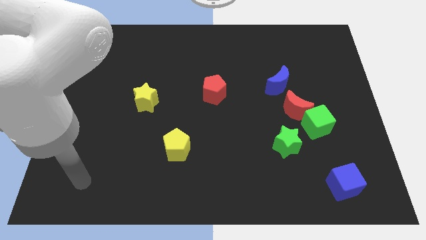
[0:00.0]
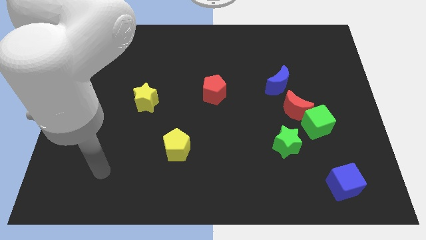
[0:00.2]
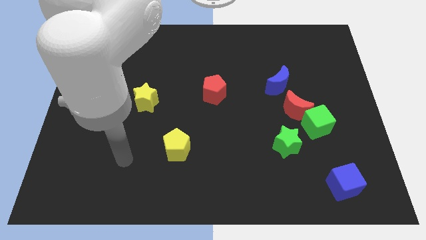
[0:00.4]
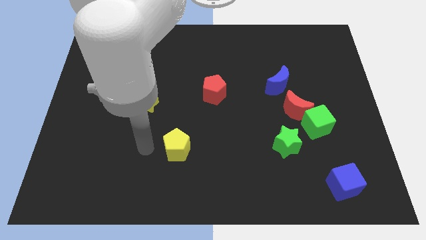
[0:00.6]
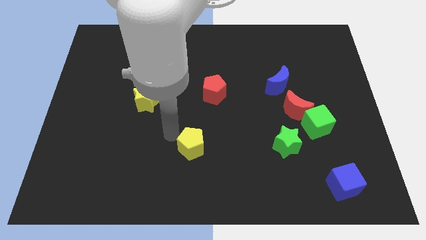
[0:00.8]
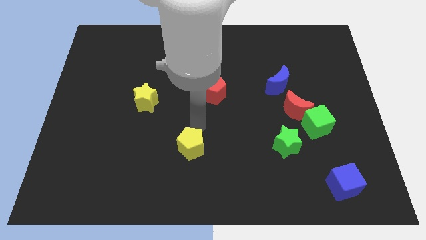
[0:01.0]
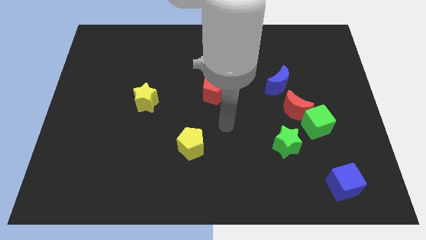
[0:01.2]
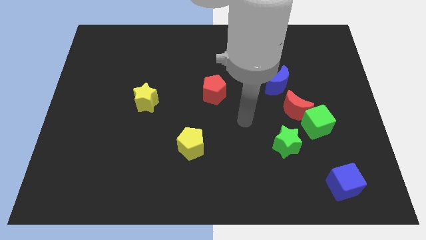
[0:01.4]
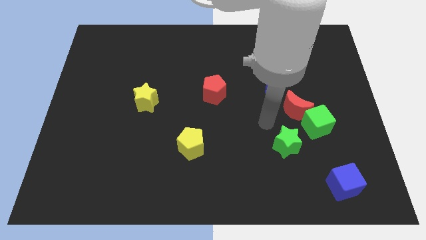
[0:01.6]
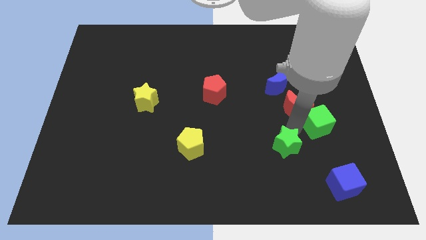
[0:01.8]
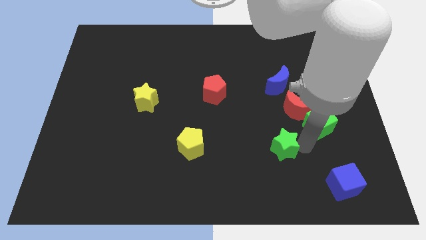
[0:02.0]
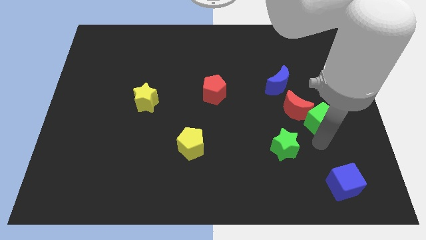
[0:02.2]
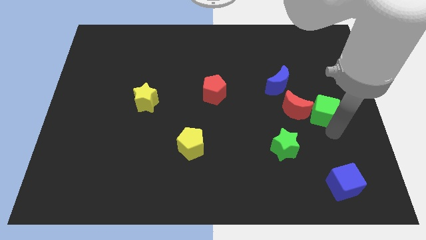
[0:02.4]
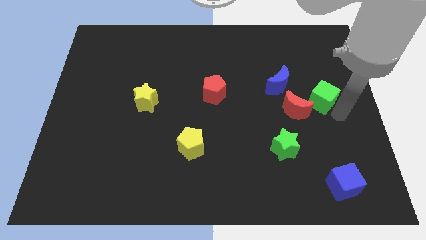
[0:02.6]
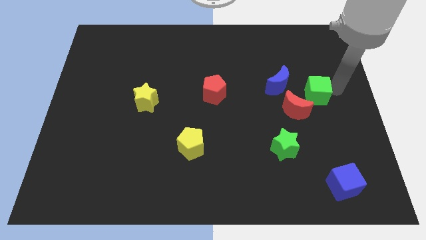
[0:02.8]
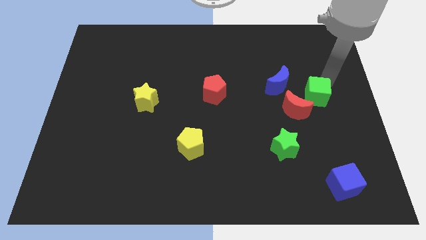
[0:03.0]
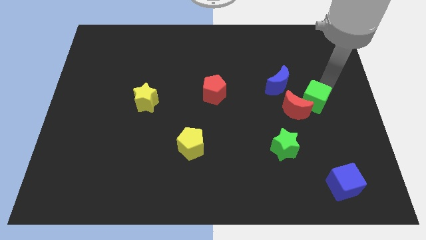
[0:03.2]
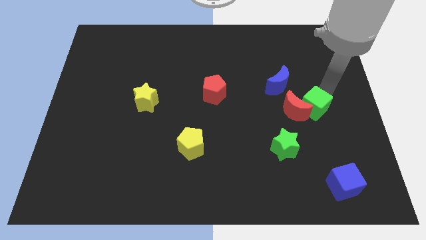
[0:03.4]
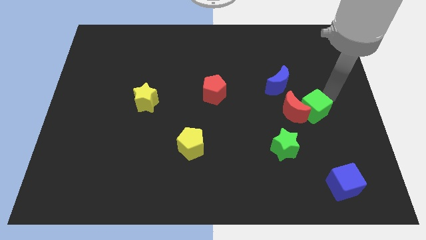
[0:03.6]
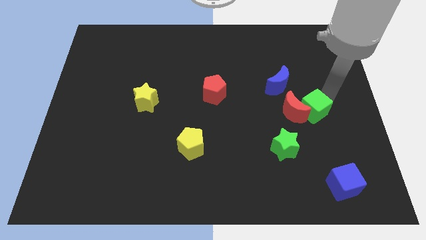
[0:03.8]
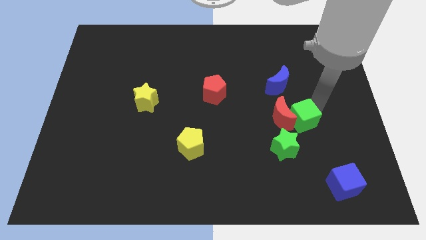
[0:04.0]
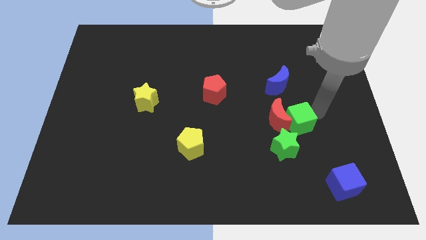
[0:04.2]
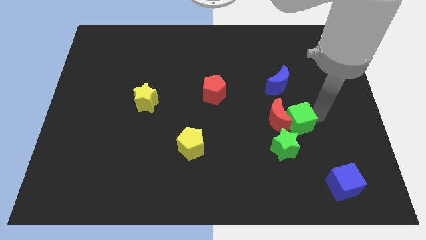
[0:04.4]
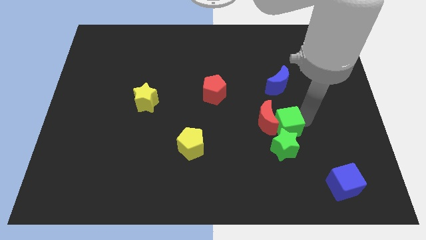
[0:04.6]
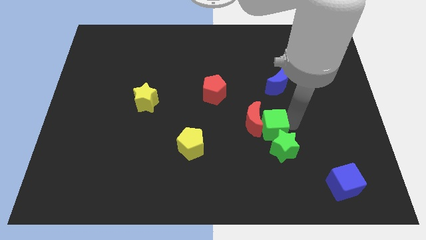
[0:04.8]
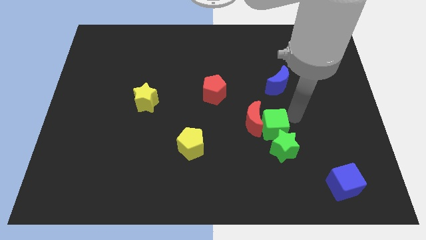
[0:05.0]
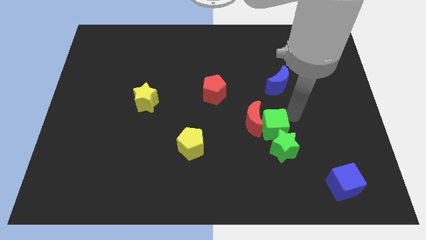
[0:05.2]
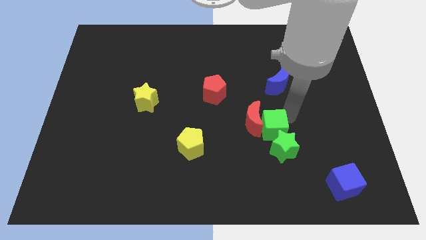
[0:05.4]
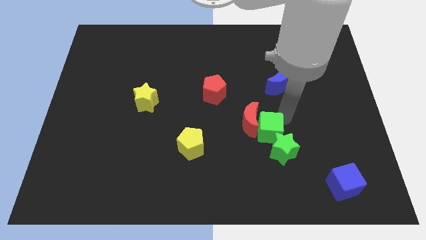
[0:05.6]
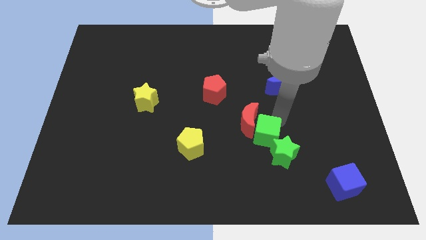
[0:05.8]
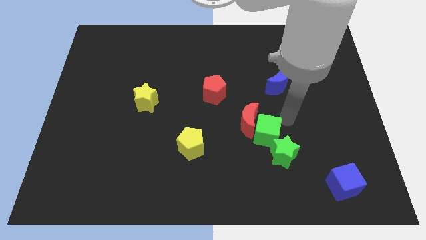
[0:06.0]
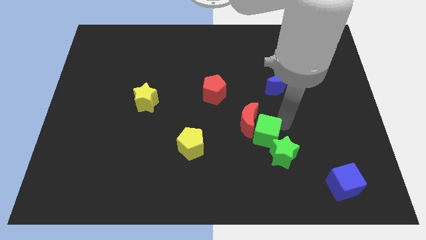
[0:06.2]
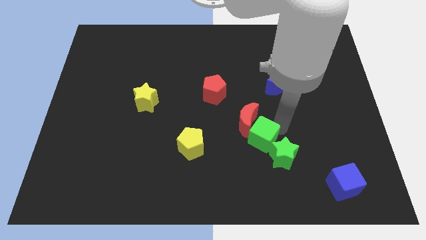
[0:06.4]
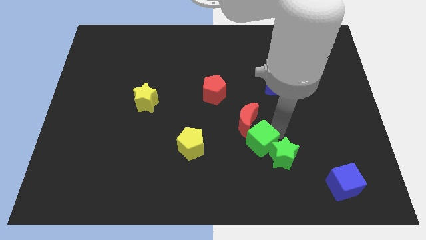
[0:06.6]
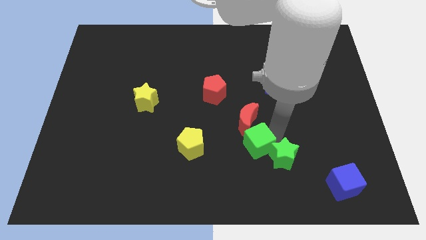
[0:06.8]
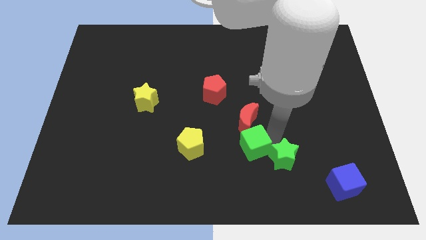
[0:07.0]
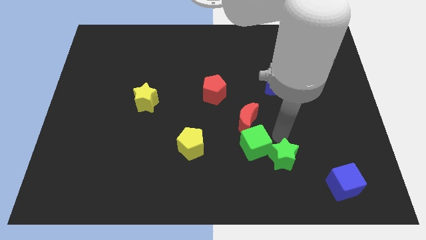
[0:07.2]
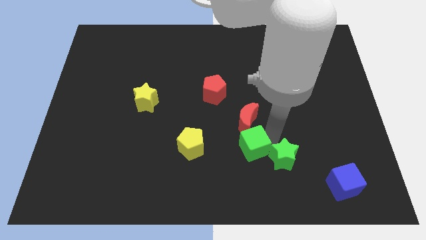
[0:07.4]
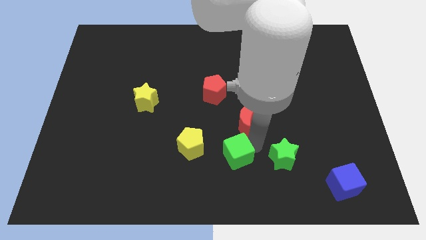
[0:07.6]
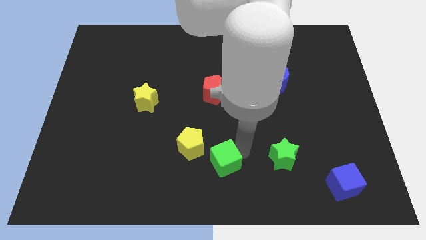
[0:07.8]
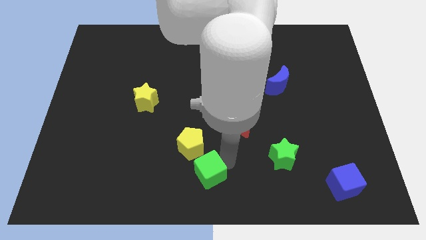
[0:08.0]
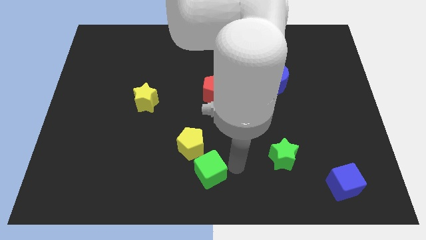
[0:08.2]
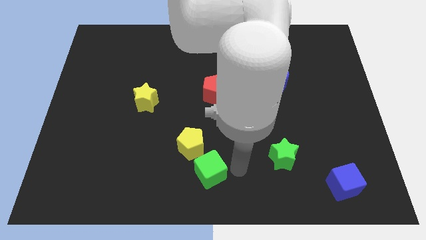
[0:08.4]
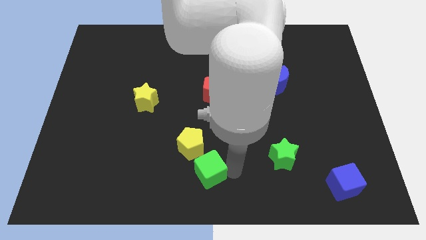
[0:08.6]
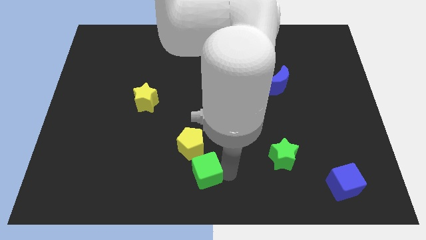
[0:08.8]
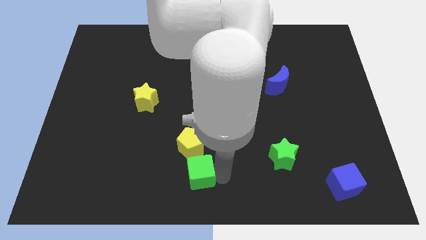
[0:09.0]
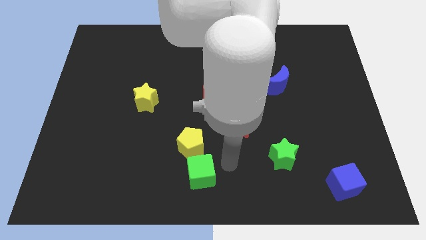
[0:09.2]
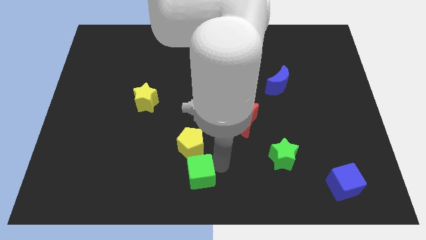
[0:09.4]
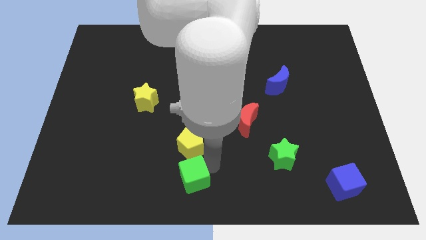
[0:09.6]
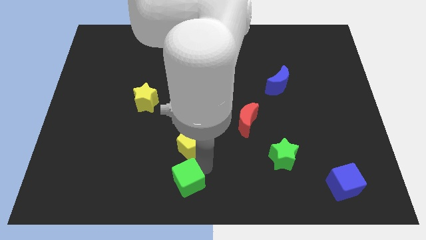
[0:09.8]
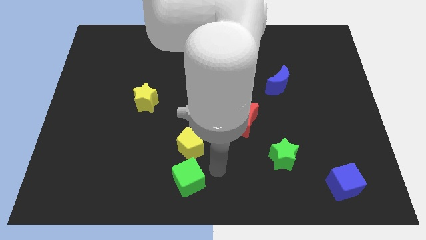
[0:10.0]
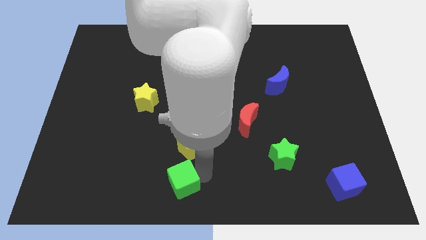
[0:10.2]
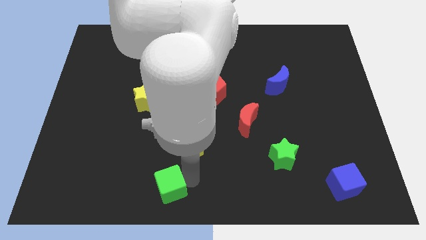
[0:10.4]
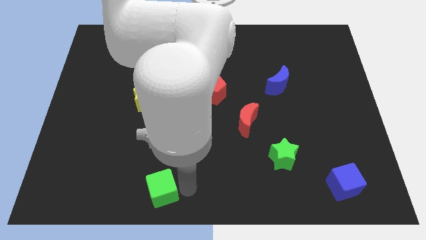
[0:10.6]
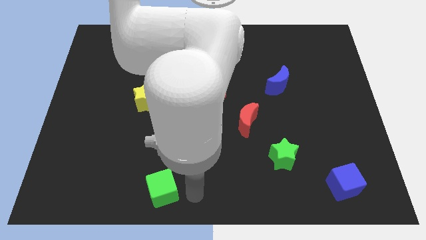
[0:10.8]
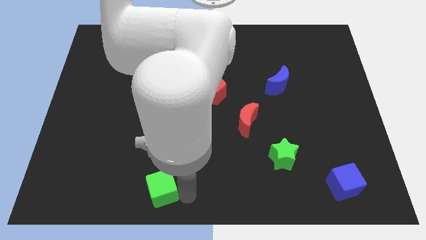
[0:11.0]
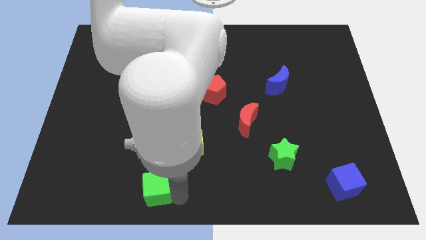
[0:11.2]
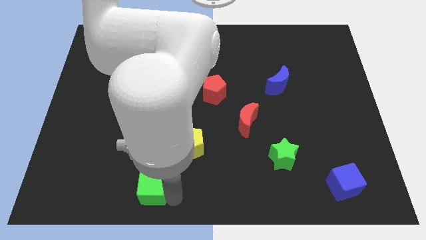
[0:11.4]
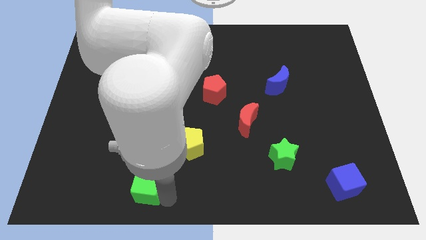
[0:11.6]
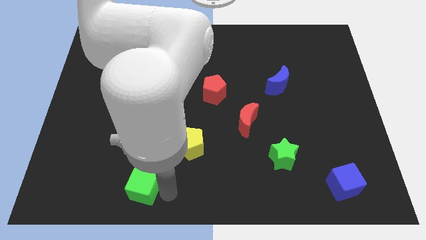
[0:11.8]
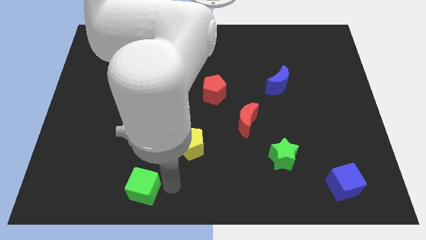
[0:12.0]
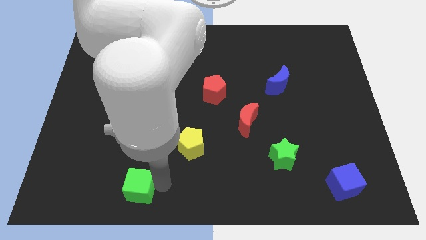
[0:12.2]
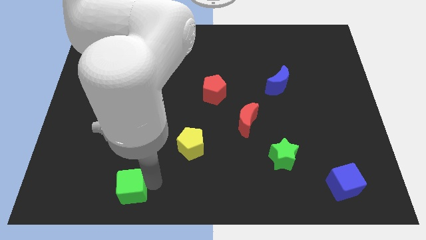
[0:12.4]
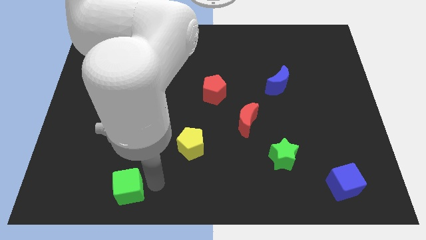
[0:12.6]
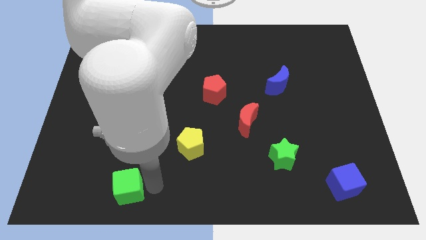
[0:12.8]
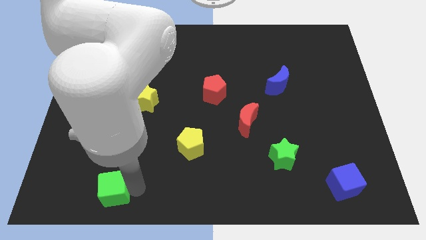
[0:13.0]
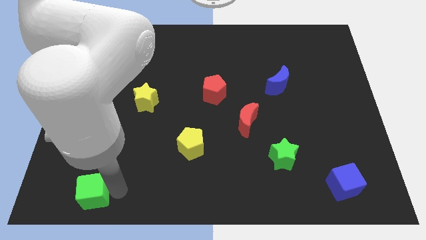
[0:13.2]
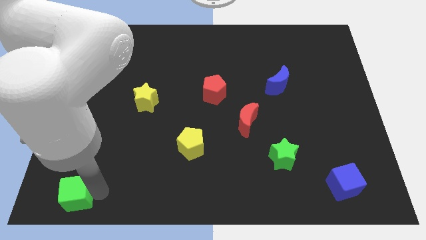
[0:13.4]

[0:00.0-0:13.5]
put the green cube to the bottom left
